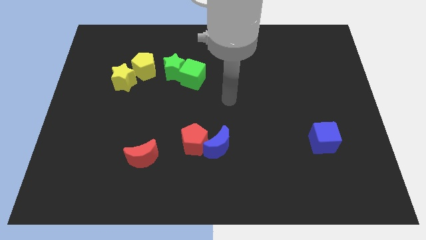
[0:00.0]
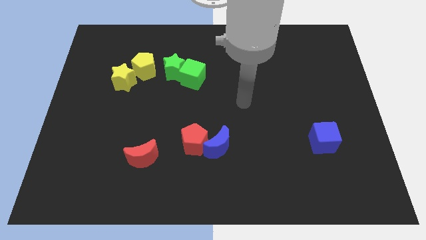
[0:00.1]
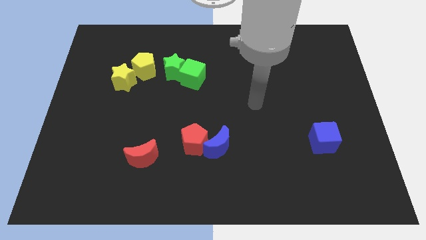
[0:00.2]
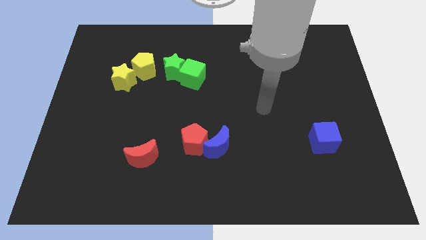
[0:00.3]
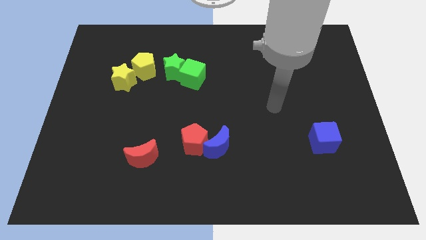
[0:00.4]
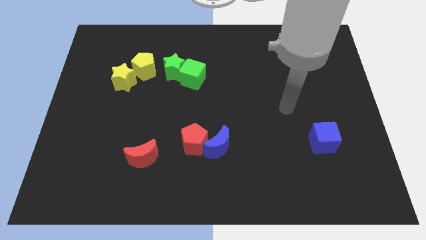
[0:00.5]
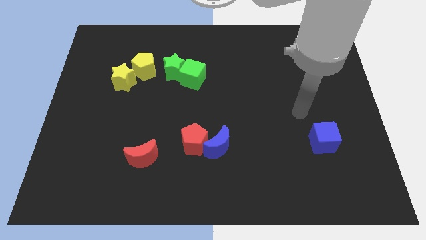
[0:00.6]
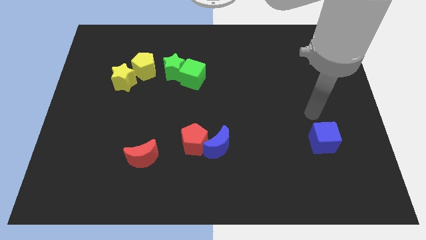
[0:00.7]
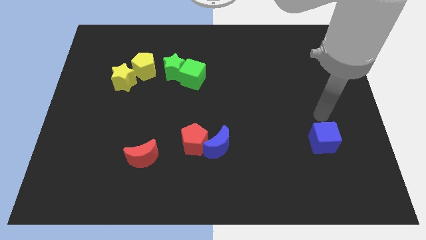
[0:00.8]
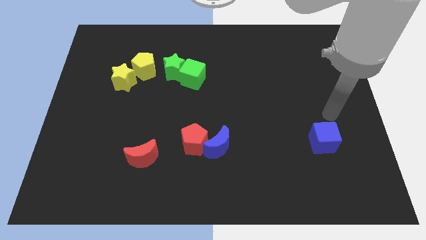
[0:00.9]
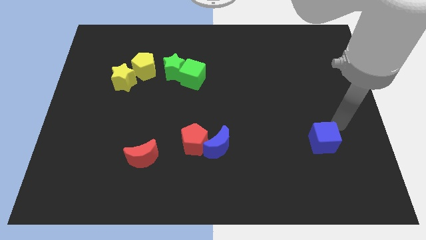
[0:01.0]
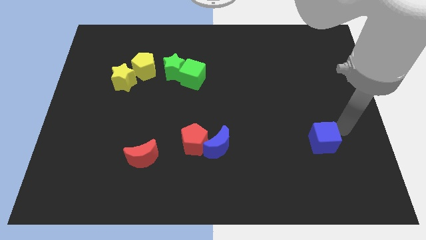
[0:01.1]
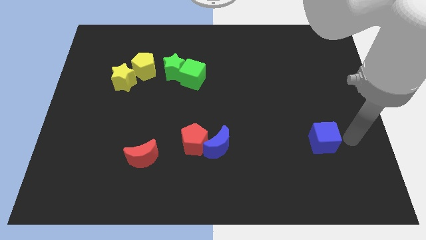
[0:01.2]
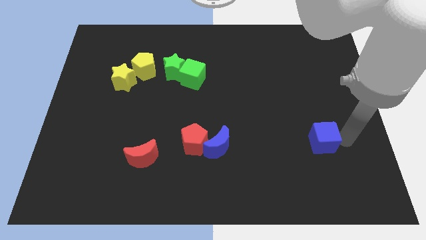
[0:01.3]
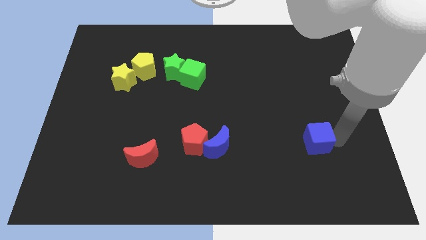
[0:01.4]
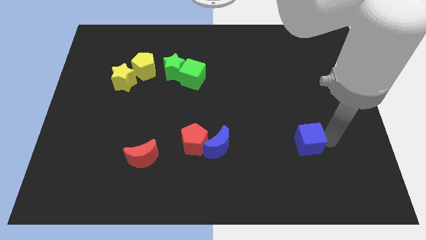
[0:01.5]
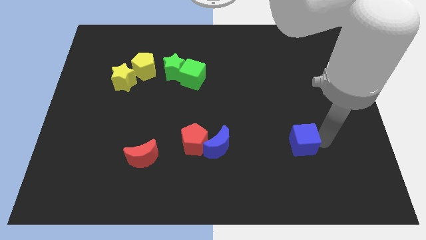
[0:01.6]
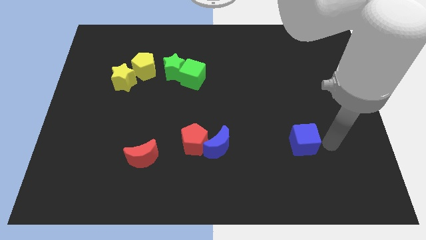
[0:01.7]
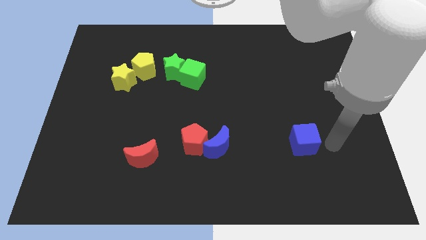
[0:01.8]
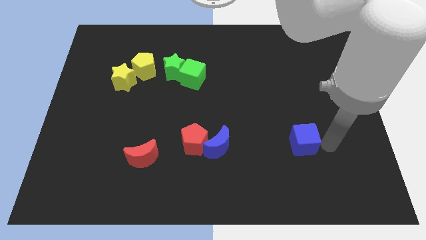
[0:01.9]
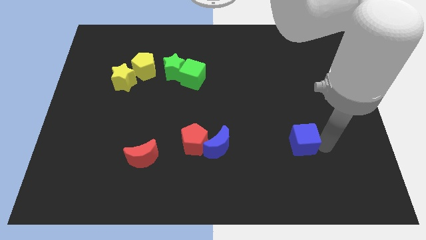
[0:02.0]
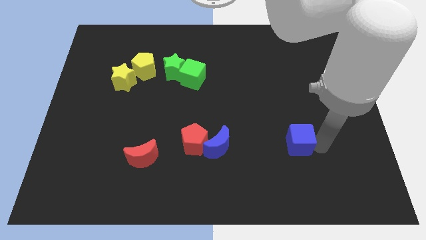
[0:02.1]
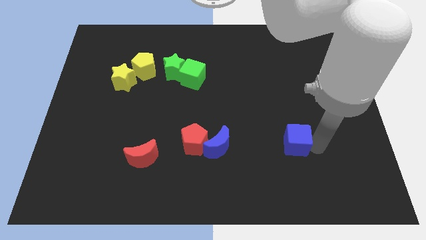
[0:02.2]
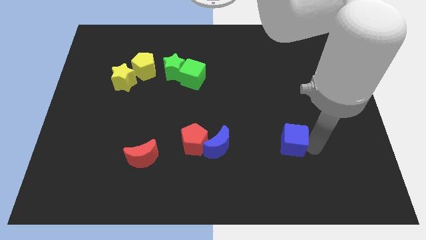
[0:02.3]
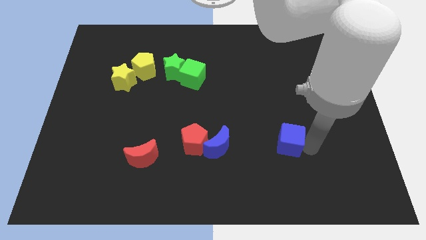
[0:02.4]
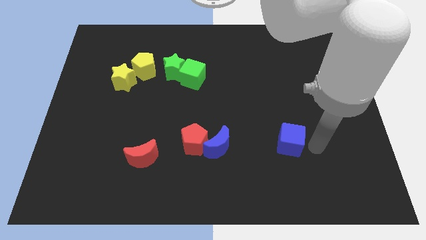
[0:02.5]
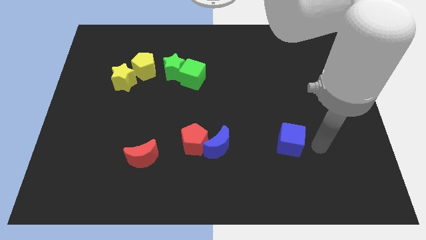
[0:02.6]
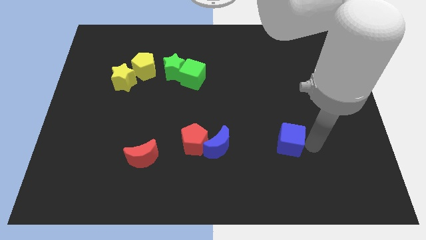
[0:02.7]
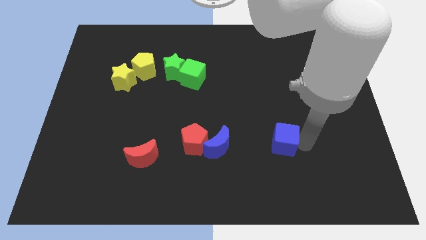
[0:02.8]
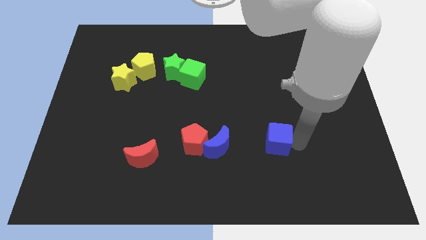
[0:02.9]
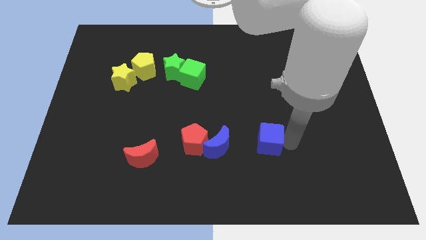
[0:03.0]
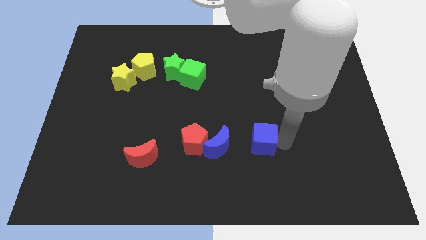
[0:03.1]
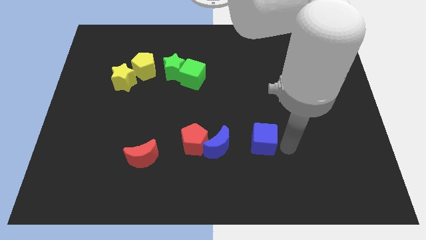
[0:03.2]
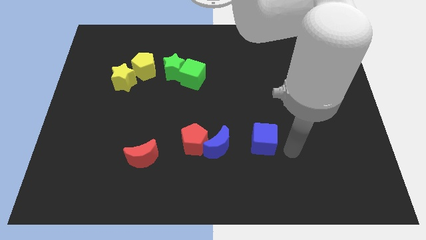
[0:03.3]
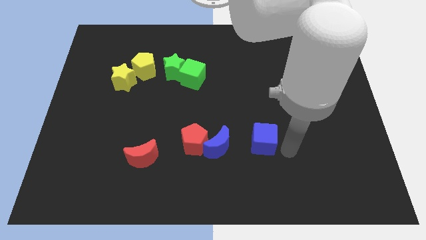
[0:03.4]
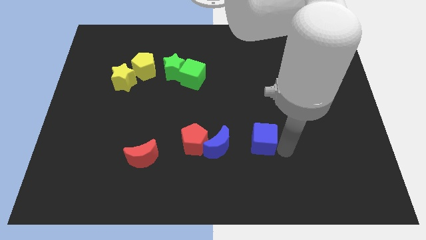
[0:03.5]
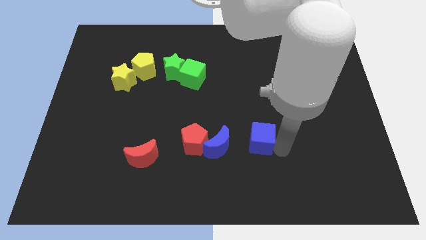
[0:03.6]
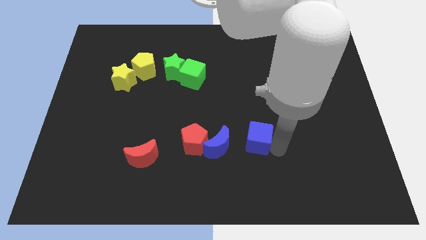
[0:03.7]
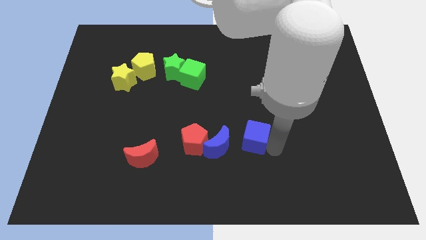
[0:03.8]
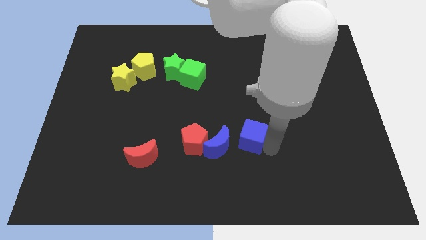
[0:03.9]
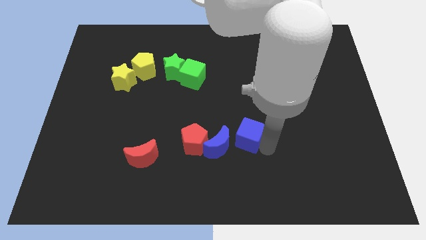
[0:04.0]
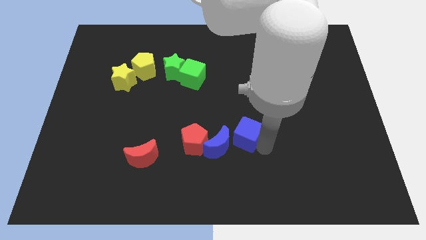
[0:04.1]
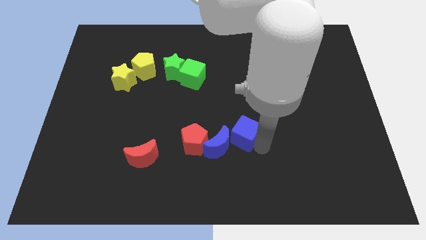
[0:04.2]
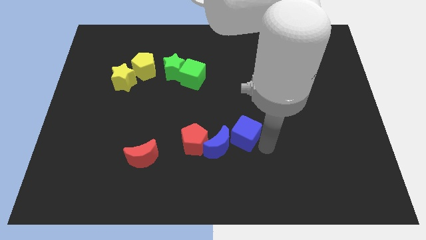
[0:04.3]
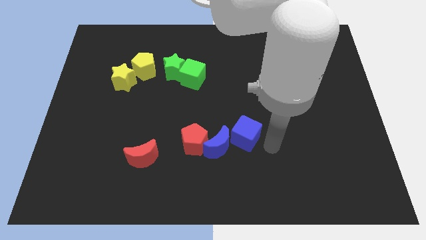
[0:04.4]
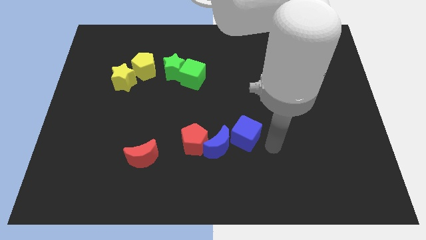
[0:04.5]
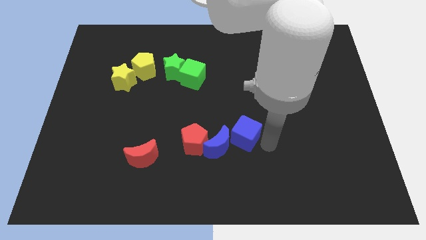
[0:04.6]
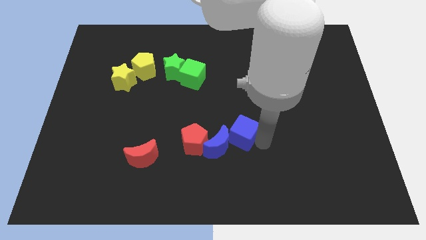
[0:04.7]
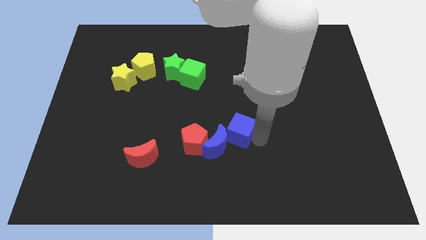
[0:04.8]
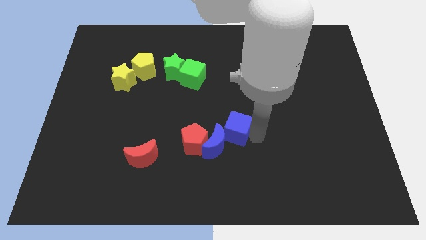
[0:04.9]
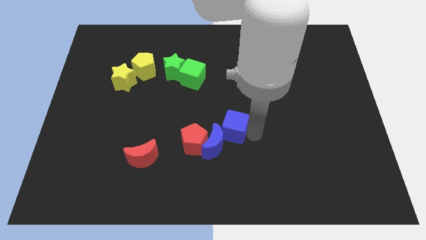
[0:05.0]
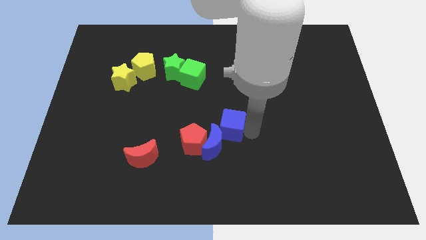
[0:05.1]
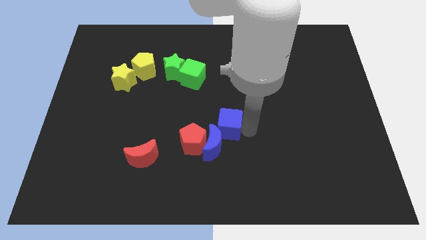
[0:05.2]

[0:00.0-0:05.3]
slide the blue cube left

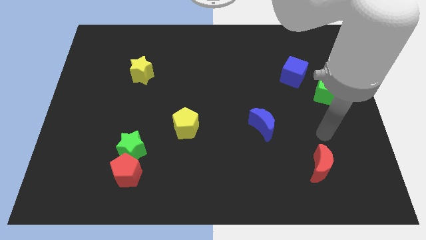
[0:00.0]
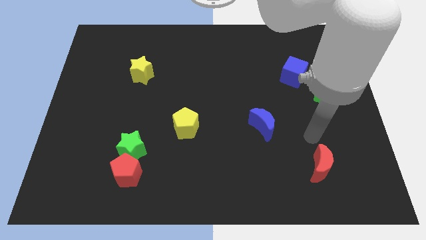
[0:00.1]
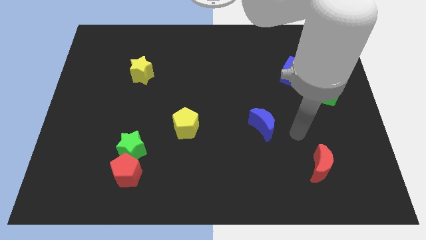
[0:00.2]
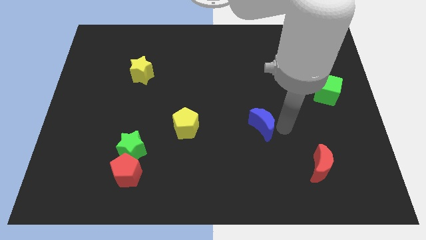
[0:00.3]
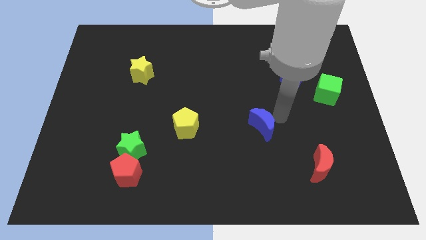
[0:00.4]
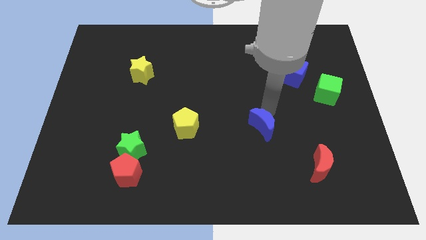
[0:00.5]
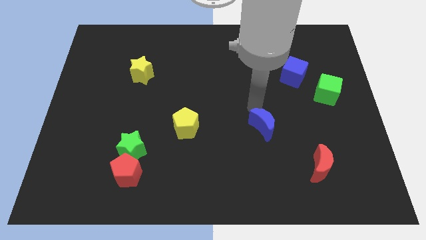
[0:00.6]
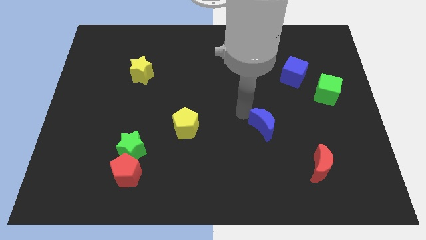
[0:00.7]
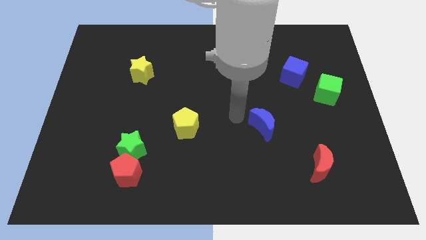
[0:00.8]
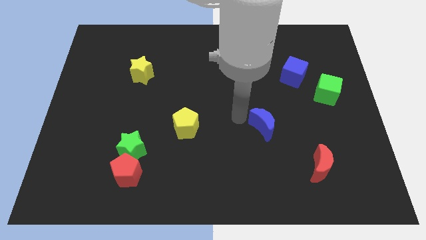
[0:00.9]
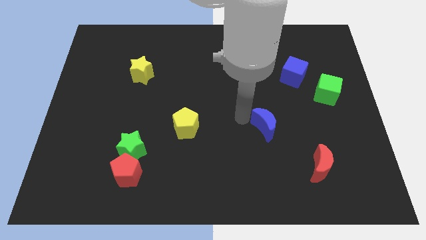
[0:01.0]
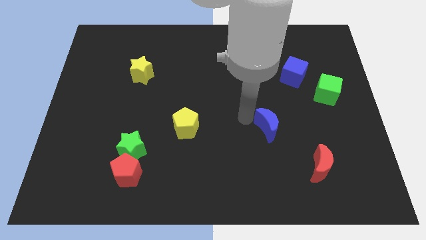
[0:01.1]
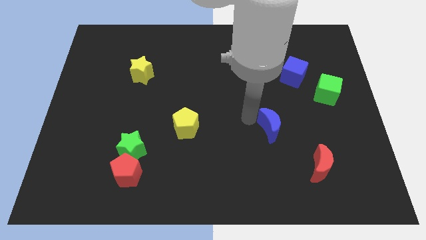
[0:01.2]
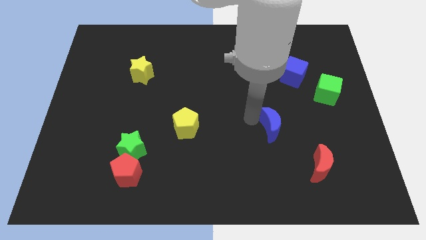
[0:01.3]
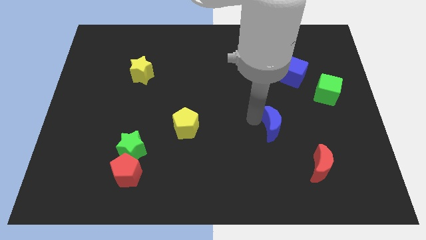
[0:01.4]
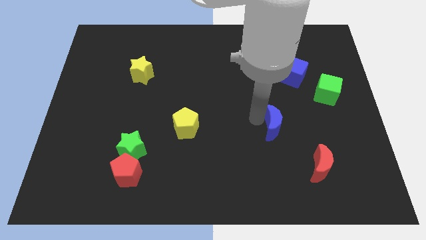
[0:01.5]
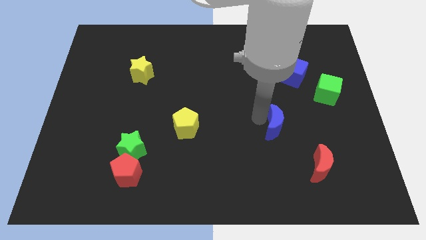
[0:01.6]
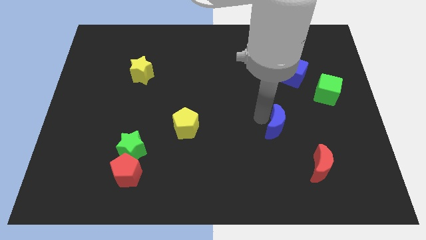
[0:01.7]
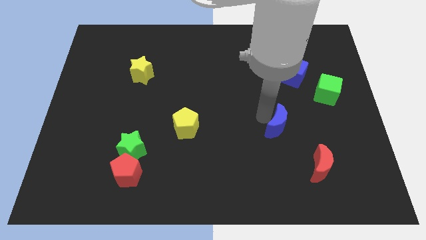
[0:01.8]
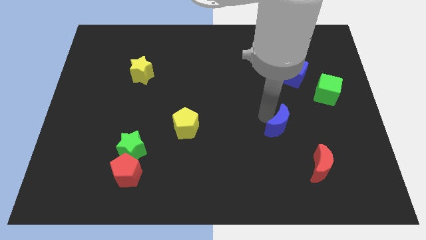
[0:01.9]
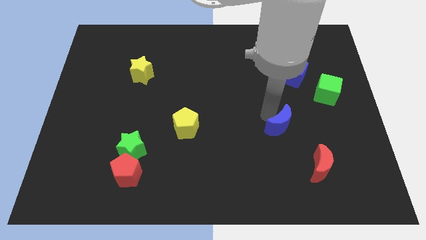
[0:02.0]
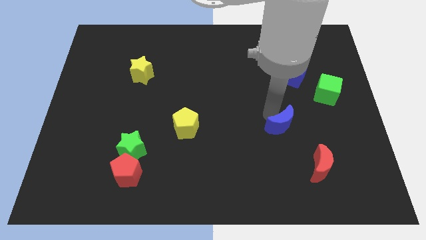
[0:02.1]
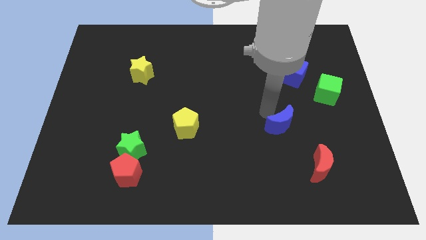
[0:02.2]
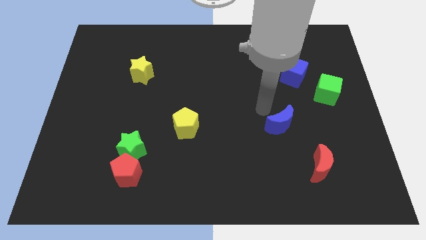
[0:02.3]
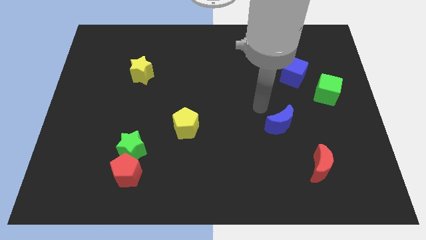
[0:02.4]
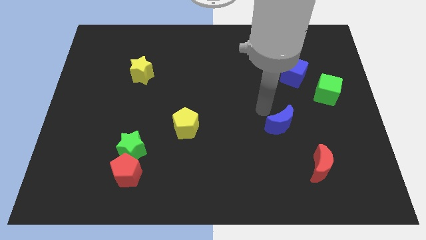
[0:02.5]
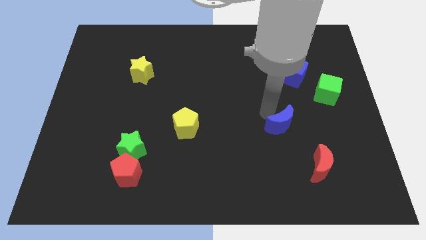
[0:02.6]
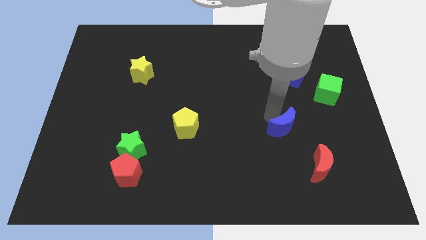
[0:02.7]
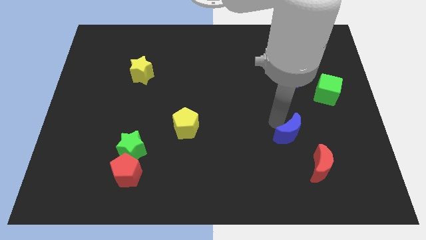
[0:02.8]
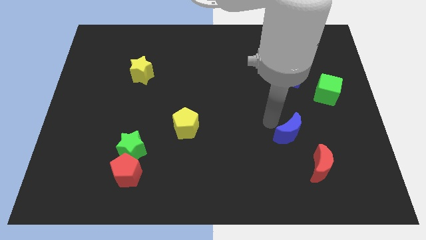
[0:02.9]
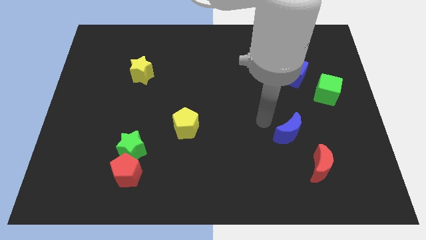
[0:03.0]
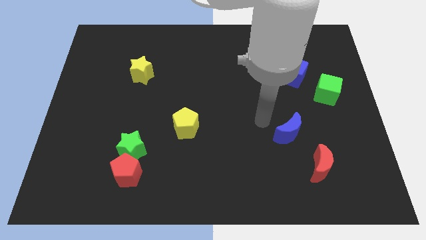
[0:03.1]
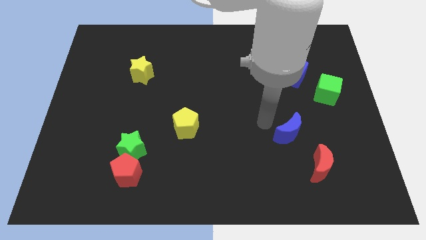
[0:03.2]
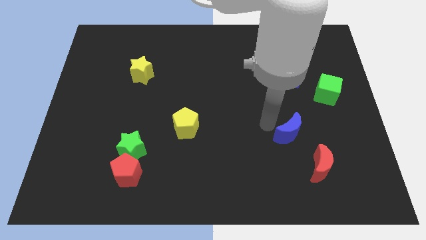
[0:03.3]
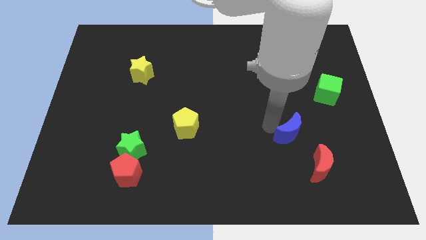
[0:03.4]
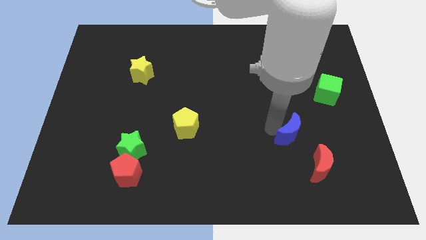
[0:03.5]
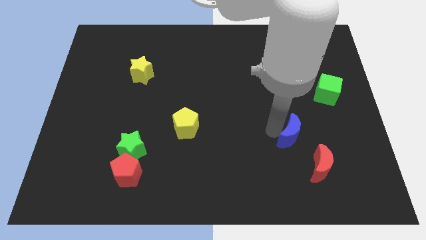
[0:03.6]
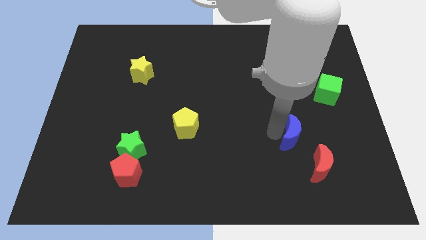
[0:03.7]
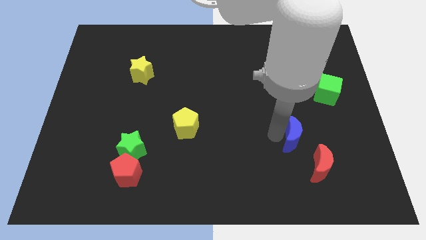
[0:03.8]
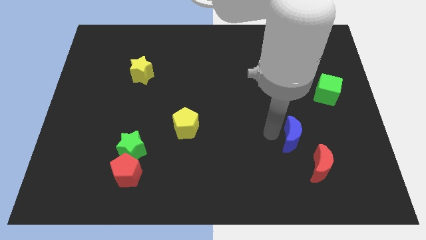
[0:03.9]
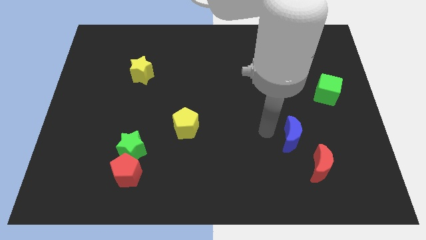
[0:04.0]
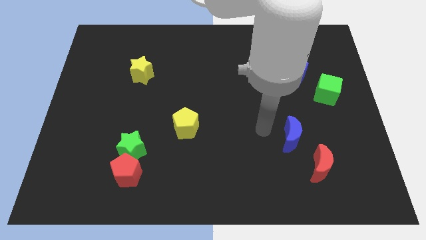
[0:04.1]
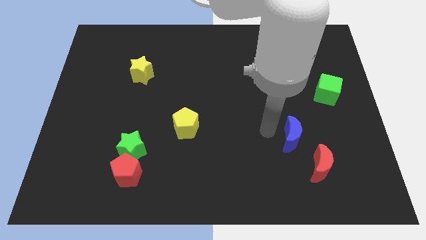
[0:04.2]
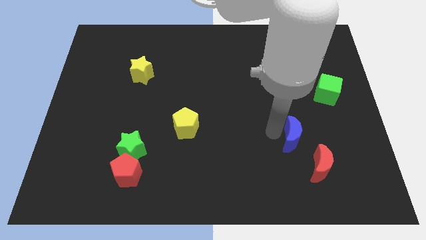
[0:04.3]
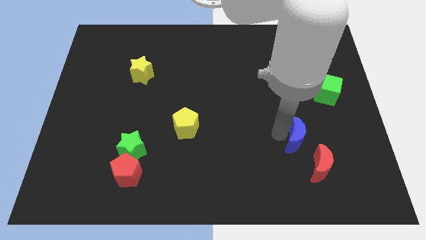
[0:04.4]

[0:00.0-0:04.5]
slightly push the blue moon down and right
